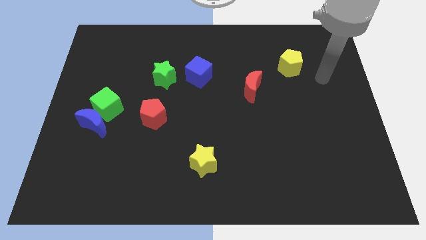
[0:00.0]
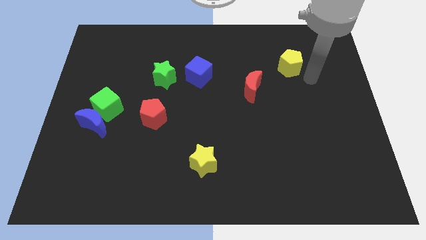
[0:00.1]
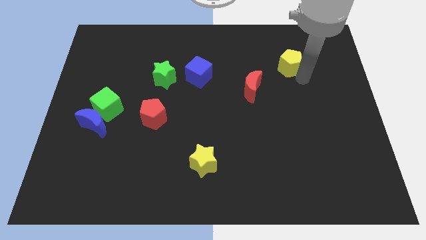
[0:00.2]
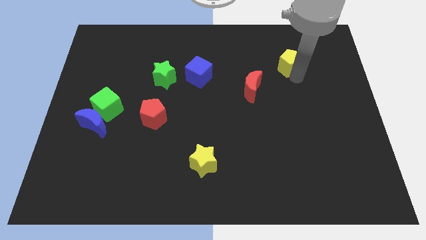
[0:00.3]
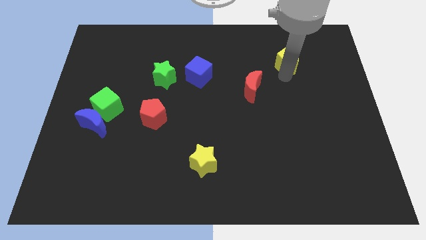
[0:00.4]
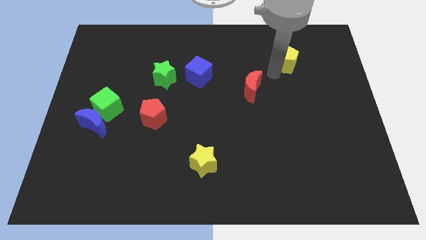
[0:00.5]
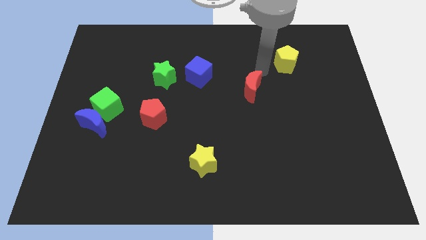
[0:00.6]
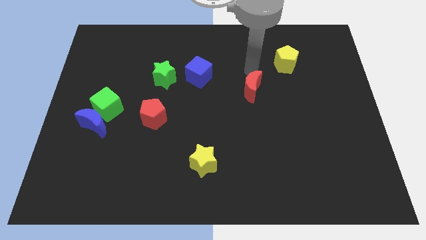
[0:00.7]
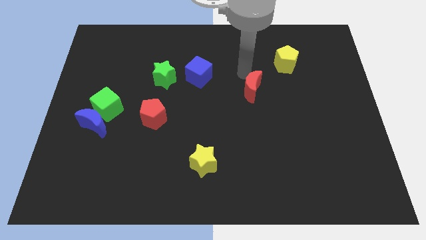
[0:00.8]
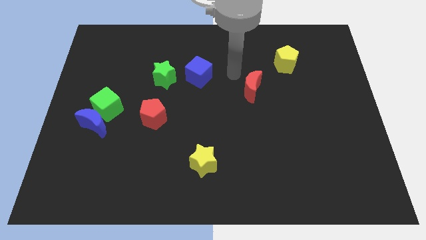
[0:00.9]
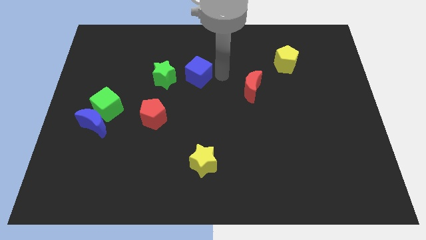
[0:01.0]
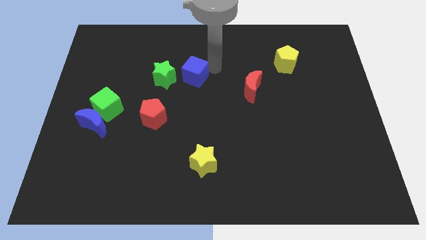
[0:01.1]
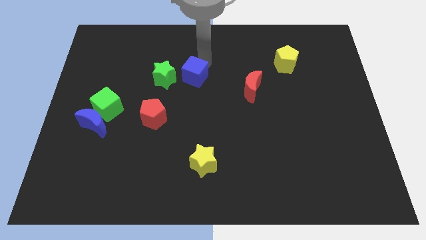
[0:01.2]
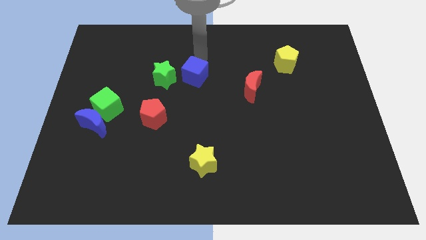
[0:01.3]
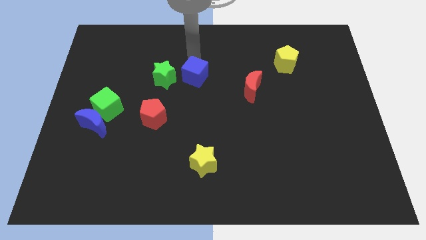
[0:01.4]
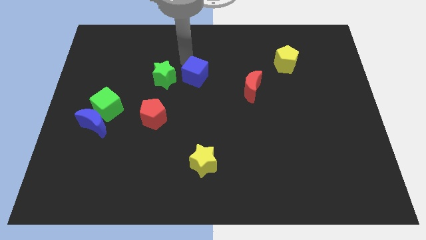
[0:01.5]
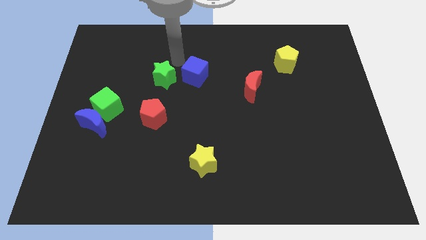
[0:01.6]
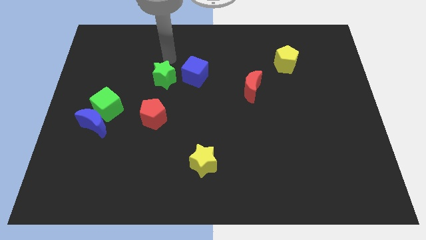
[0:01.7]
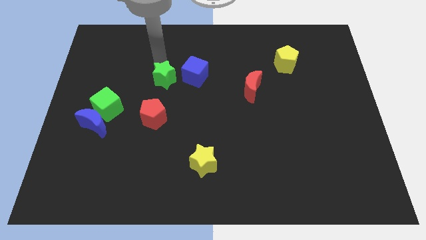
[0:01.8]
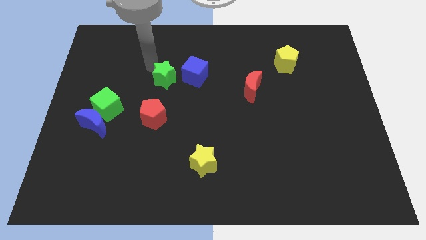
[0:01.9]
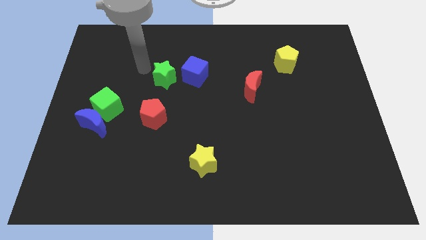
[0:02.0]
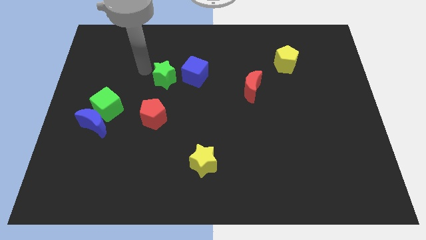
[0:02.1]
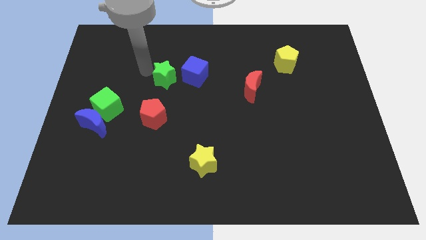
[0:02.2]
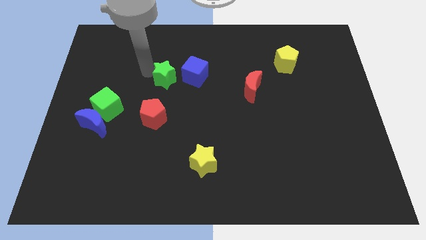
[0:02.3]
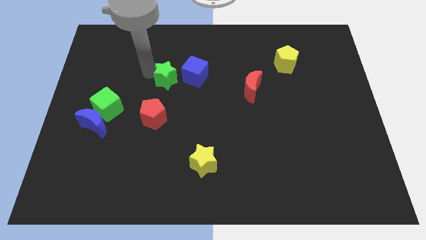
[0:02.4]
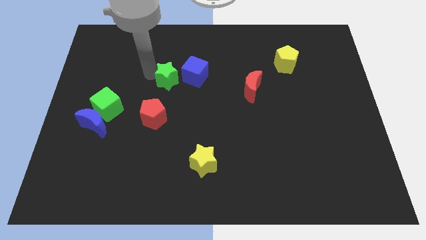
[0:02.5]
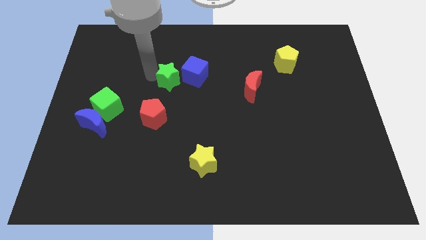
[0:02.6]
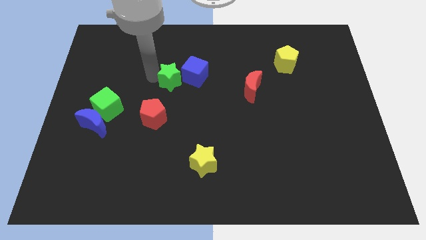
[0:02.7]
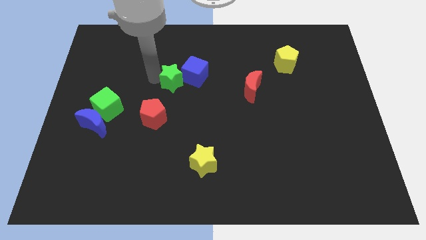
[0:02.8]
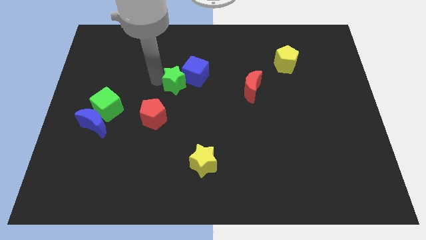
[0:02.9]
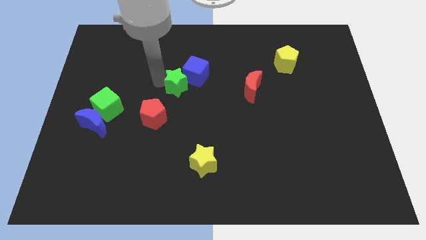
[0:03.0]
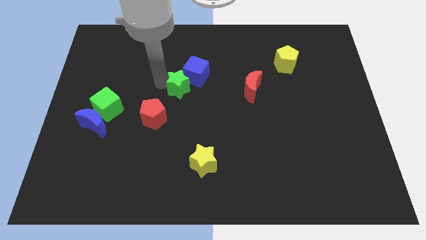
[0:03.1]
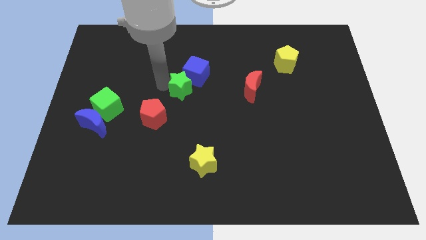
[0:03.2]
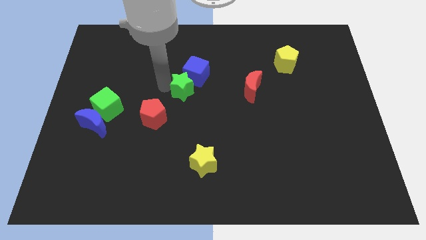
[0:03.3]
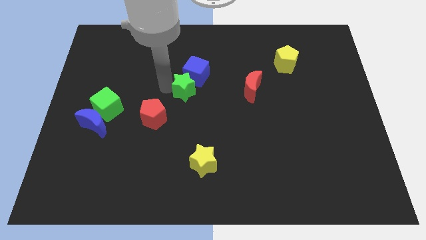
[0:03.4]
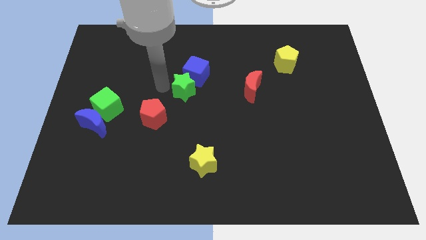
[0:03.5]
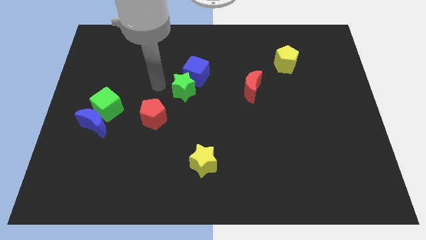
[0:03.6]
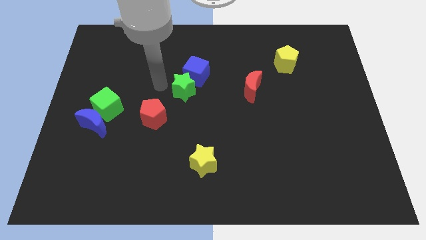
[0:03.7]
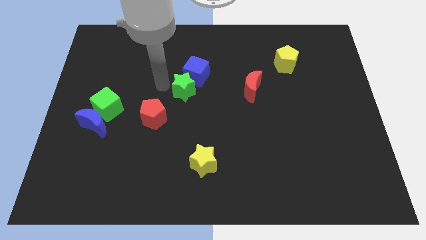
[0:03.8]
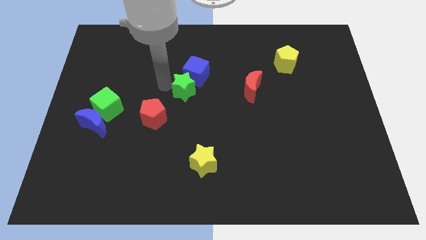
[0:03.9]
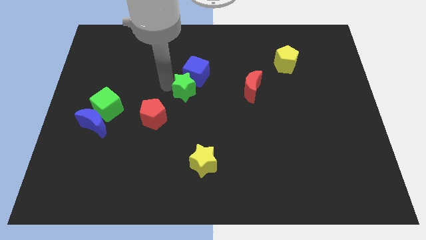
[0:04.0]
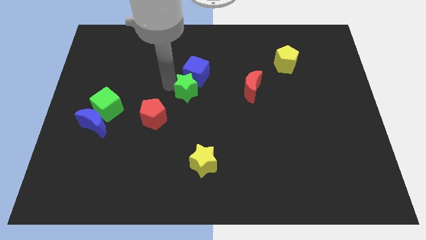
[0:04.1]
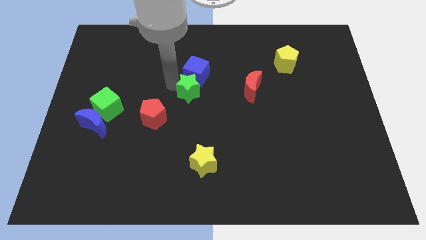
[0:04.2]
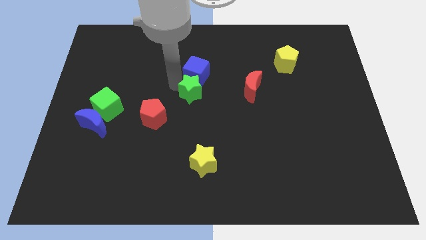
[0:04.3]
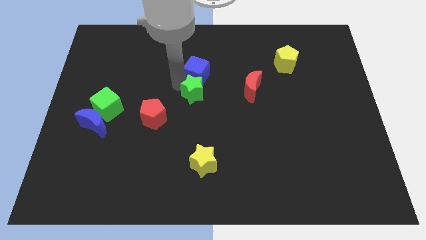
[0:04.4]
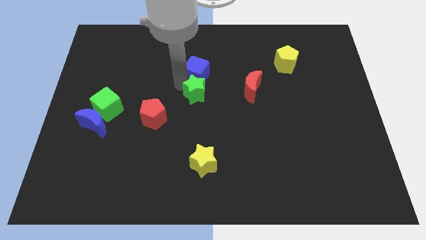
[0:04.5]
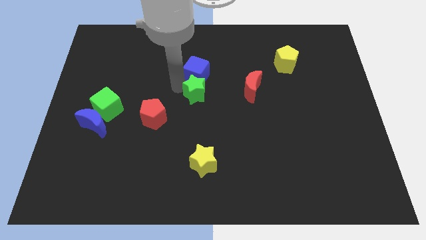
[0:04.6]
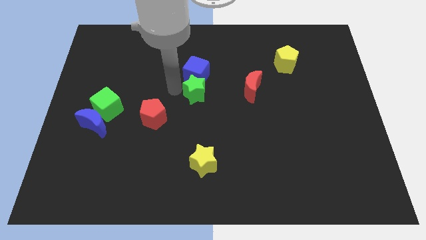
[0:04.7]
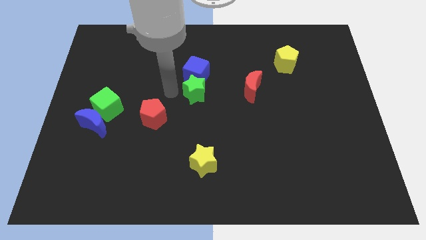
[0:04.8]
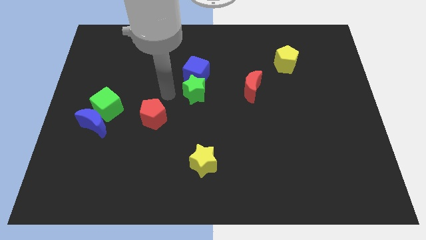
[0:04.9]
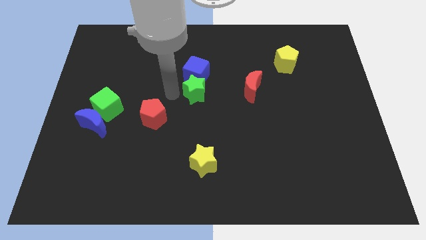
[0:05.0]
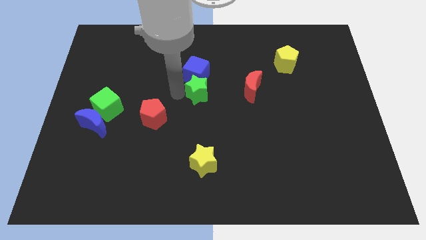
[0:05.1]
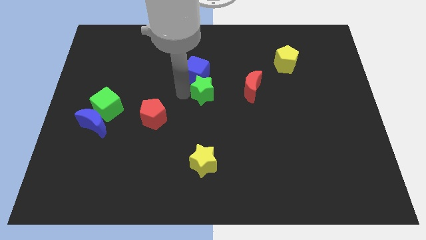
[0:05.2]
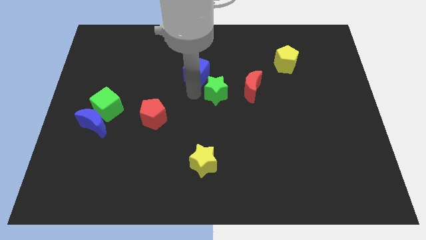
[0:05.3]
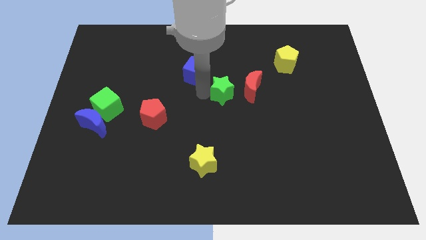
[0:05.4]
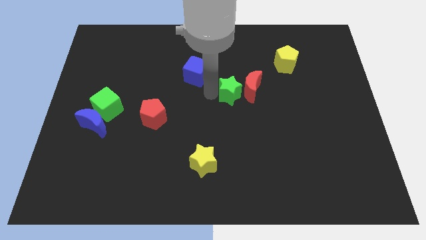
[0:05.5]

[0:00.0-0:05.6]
move the green star towards the red moon

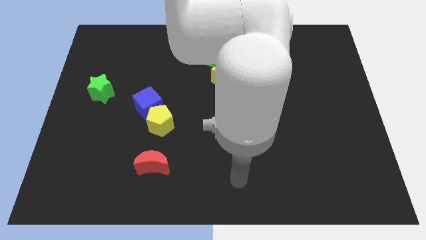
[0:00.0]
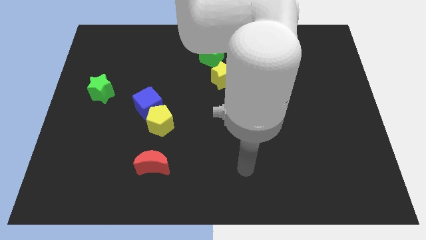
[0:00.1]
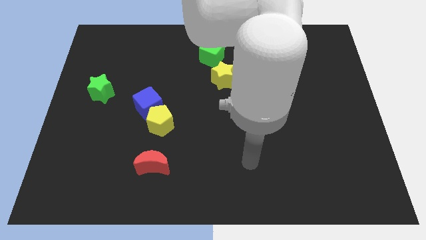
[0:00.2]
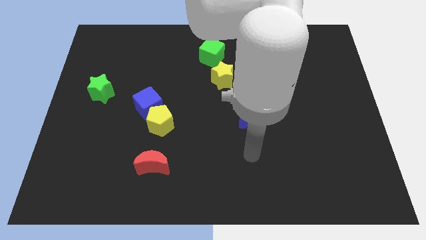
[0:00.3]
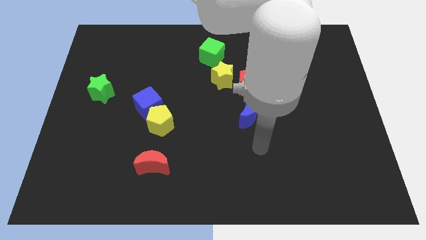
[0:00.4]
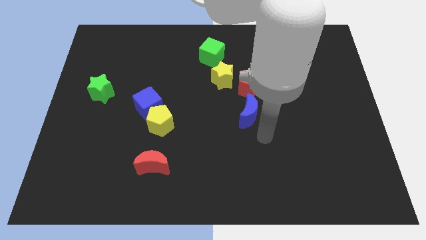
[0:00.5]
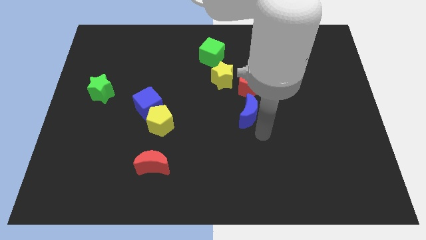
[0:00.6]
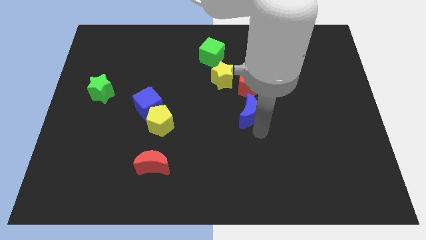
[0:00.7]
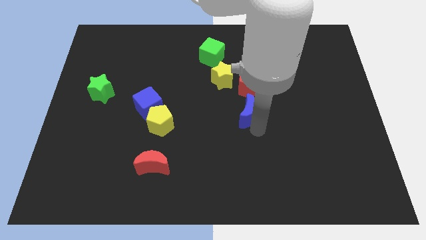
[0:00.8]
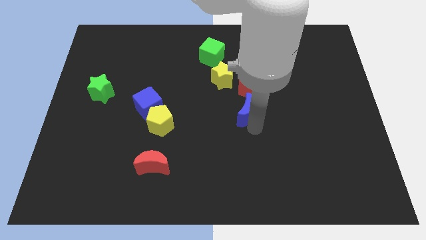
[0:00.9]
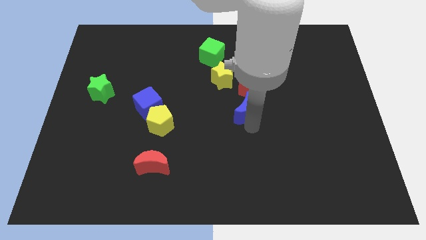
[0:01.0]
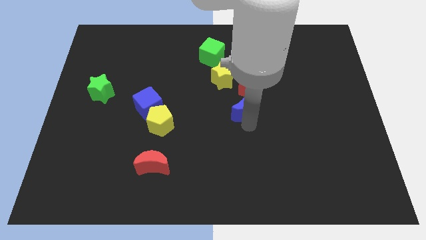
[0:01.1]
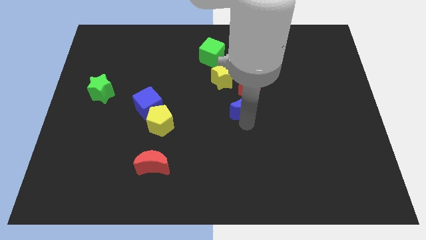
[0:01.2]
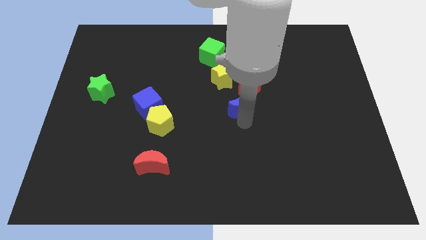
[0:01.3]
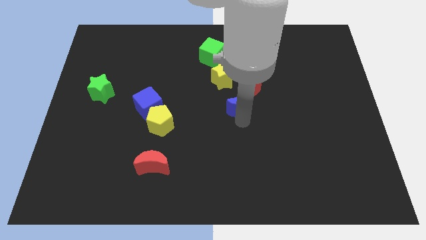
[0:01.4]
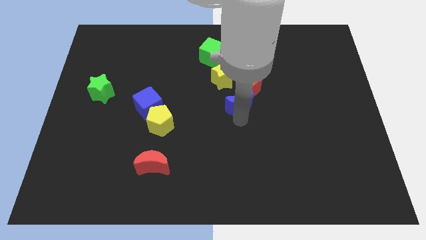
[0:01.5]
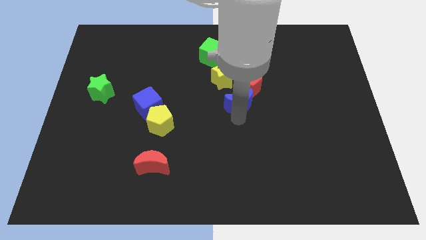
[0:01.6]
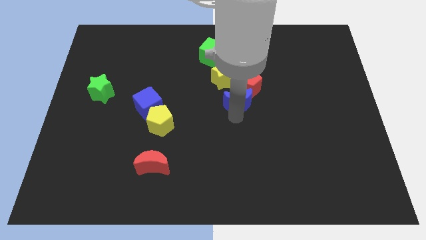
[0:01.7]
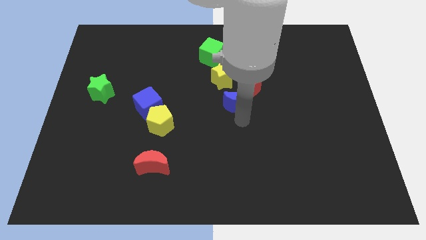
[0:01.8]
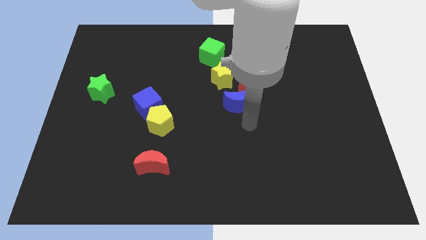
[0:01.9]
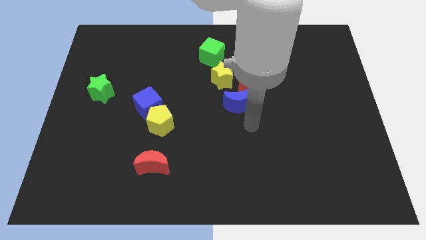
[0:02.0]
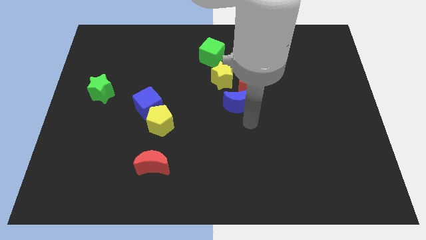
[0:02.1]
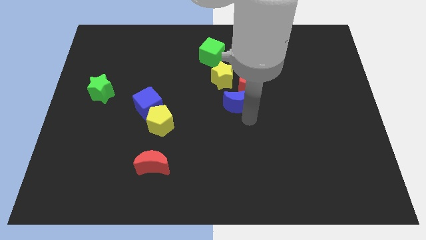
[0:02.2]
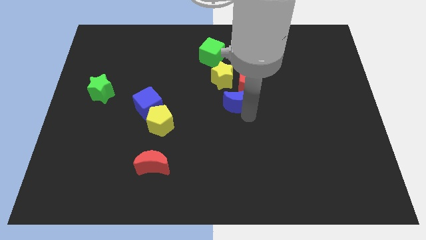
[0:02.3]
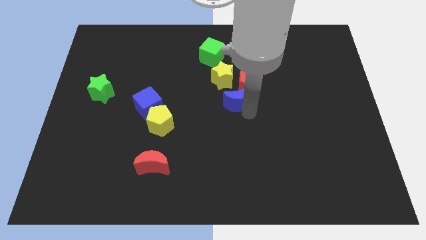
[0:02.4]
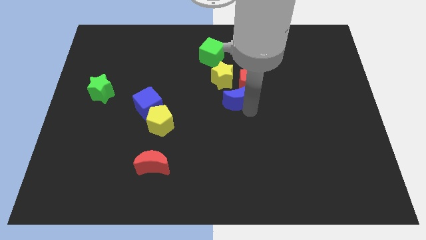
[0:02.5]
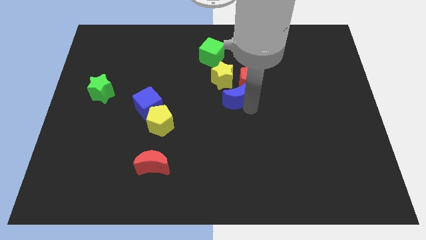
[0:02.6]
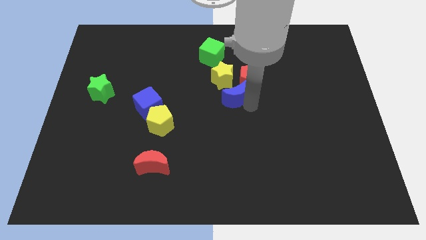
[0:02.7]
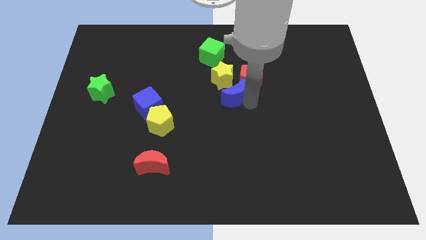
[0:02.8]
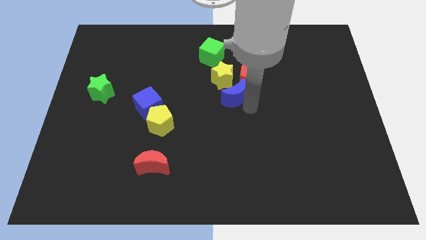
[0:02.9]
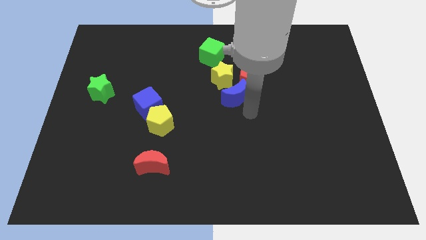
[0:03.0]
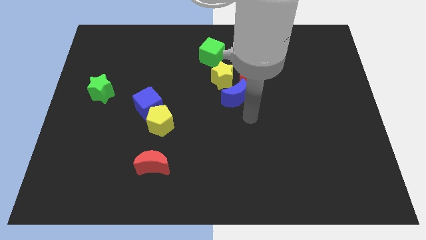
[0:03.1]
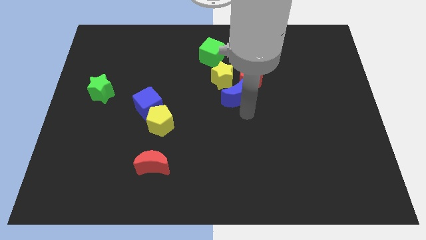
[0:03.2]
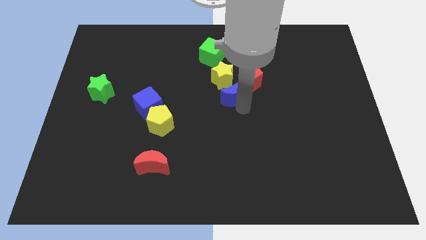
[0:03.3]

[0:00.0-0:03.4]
slide the blue moon close to the yellow star
